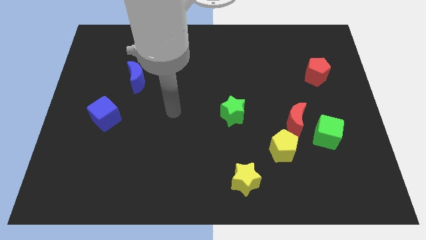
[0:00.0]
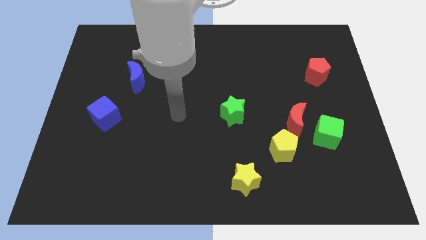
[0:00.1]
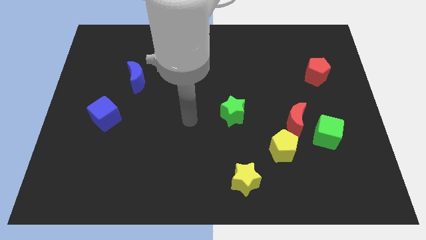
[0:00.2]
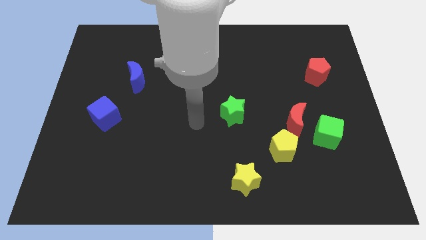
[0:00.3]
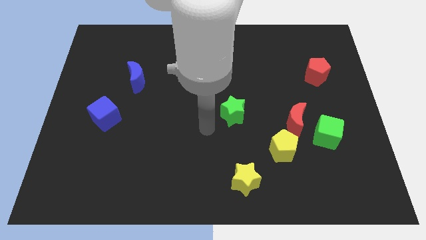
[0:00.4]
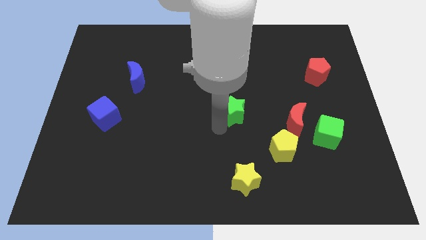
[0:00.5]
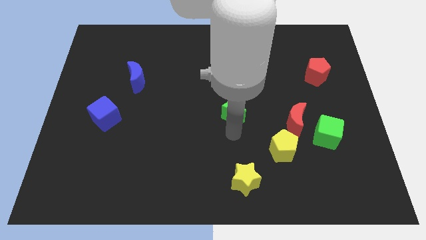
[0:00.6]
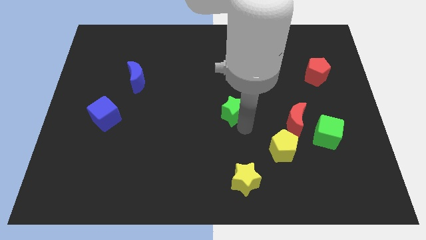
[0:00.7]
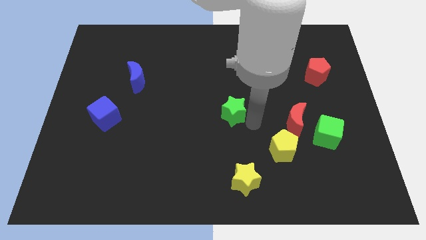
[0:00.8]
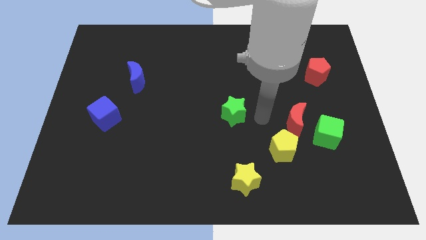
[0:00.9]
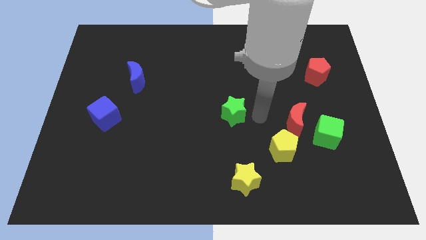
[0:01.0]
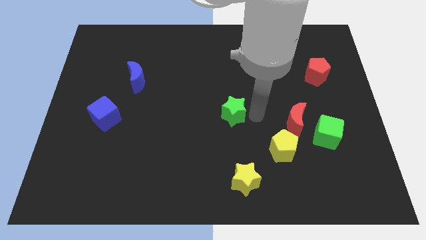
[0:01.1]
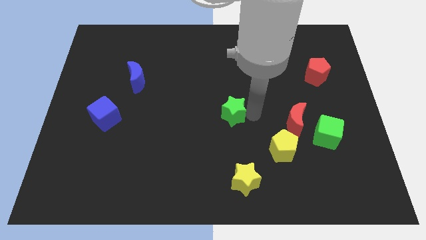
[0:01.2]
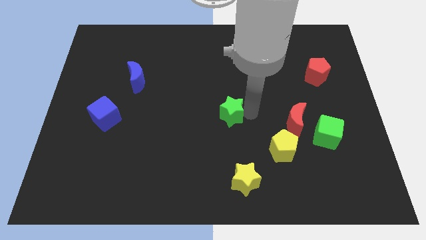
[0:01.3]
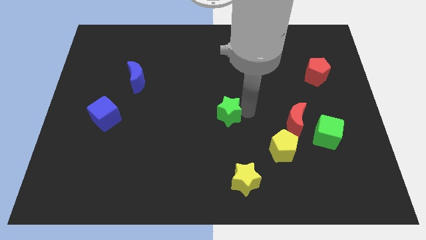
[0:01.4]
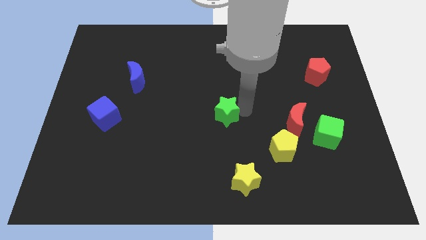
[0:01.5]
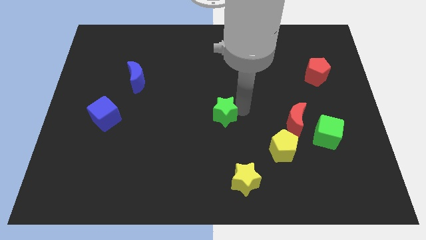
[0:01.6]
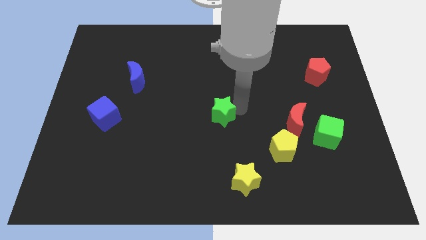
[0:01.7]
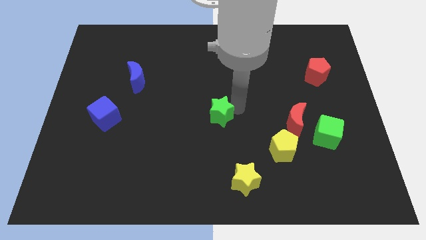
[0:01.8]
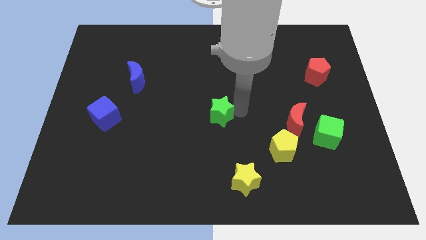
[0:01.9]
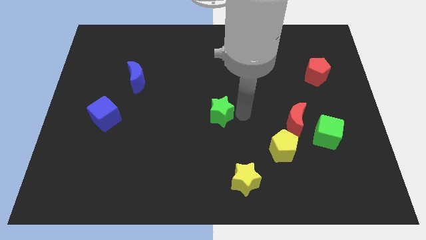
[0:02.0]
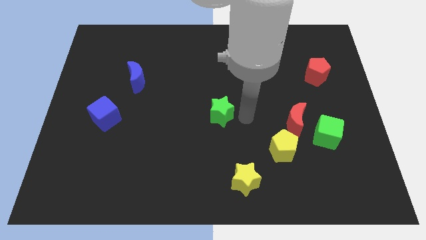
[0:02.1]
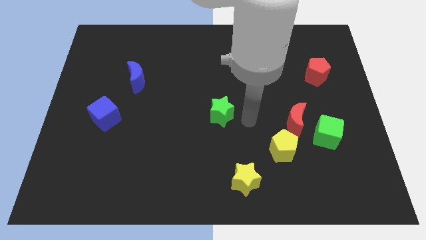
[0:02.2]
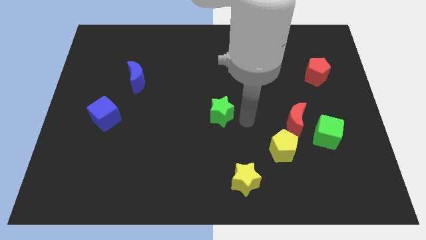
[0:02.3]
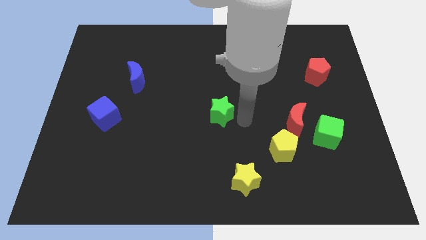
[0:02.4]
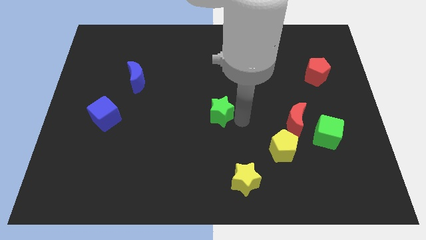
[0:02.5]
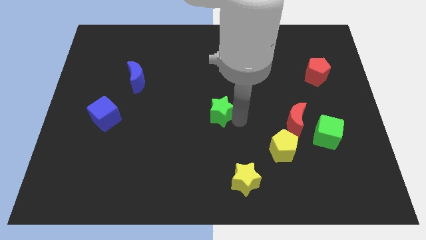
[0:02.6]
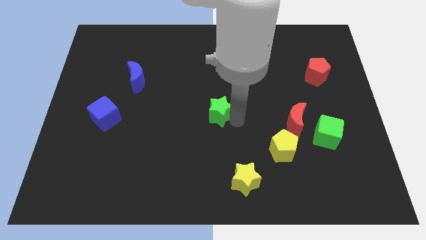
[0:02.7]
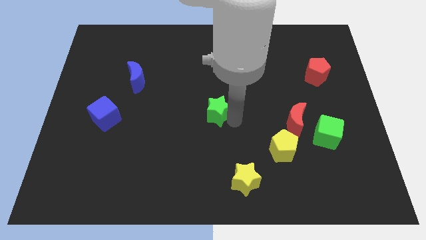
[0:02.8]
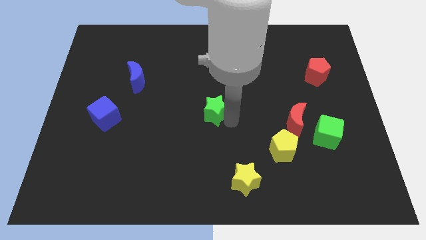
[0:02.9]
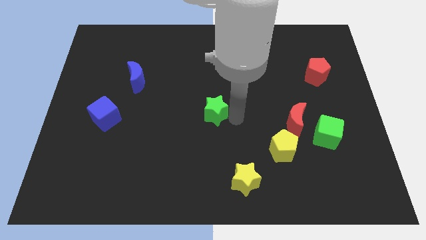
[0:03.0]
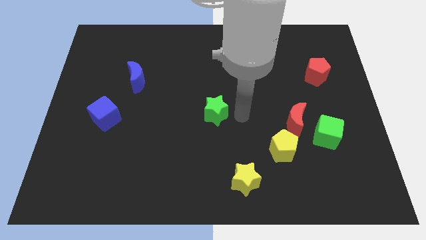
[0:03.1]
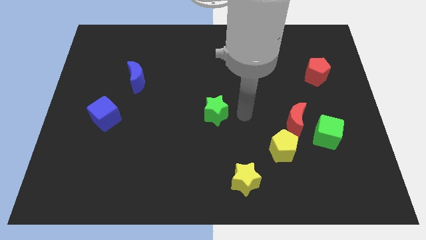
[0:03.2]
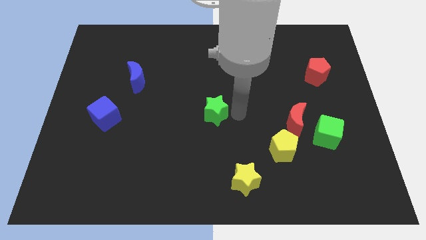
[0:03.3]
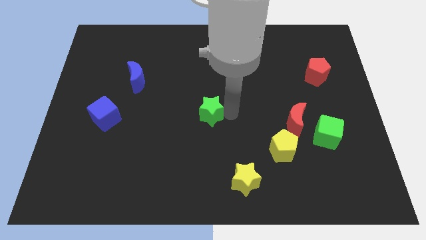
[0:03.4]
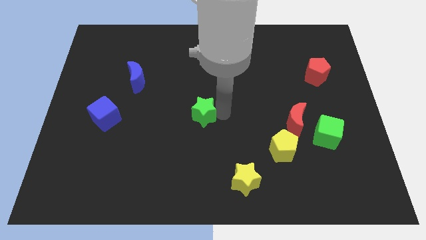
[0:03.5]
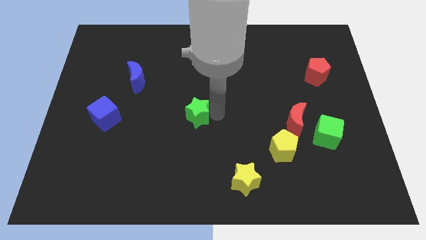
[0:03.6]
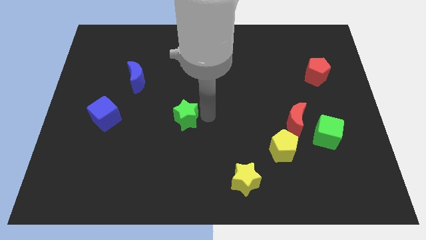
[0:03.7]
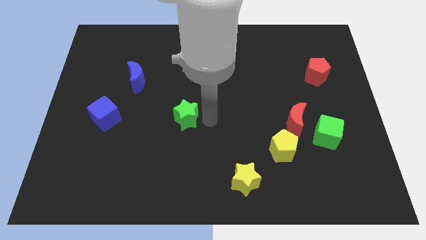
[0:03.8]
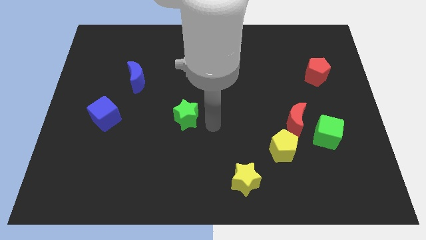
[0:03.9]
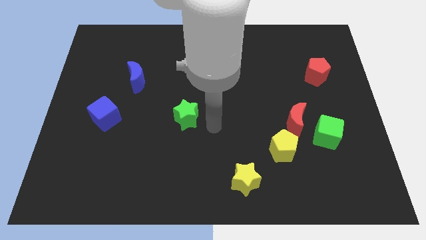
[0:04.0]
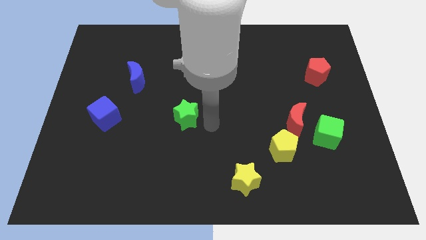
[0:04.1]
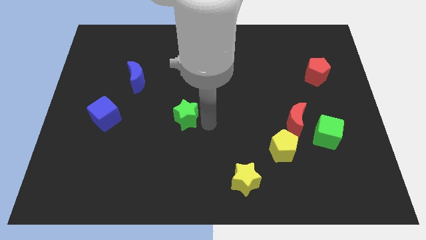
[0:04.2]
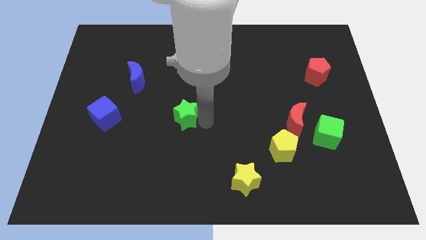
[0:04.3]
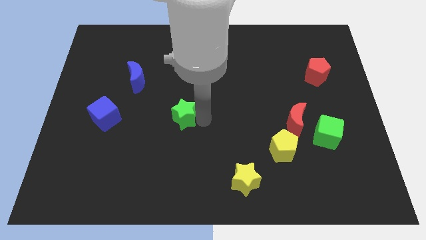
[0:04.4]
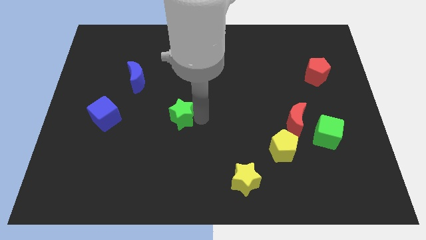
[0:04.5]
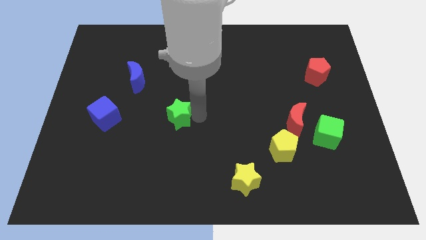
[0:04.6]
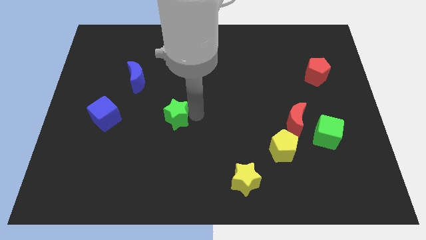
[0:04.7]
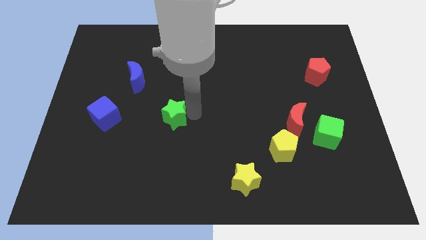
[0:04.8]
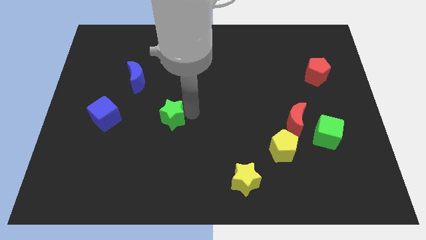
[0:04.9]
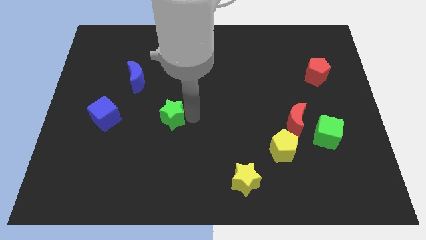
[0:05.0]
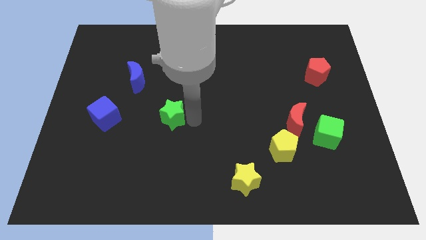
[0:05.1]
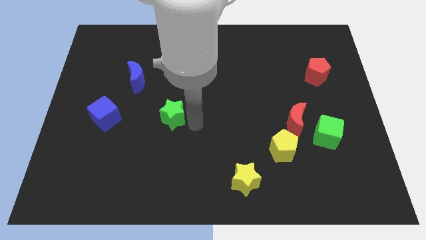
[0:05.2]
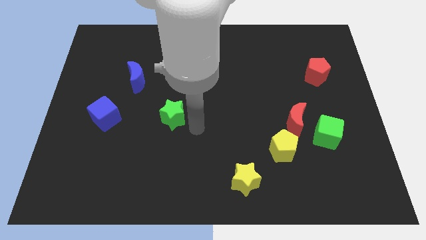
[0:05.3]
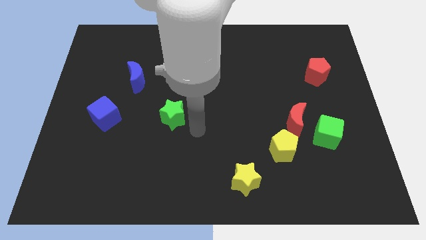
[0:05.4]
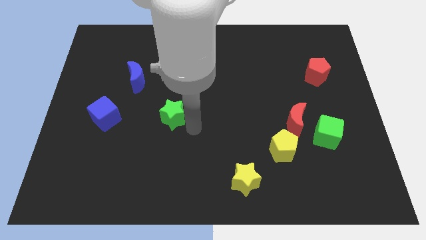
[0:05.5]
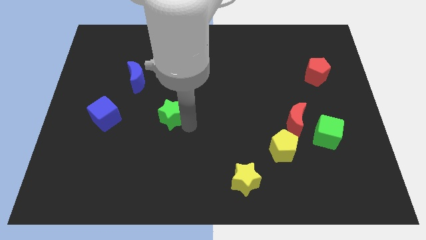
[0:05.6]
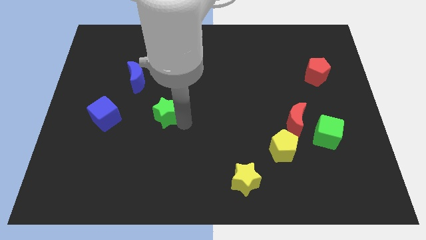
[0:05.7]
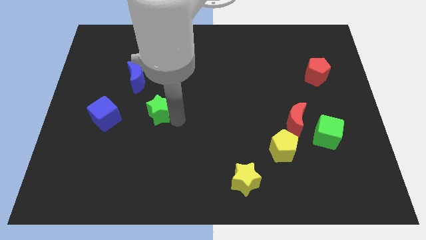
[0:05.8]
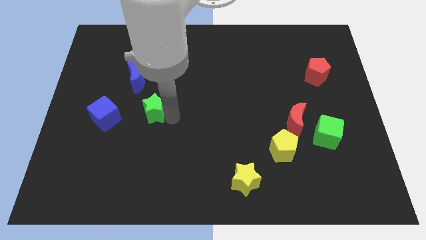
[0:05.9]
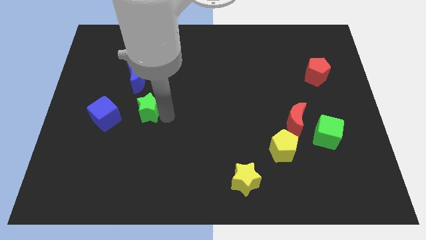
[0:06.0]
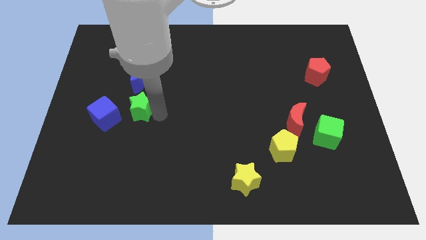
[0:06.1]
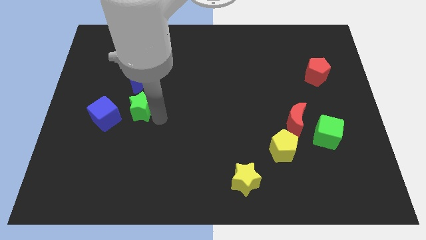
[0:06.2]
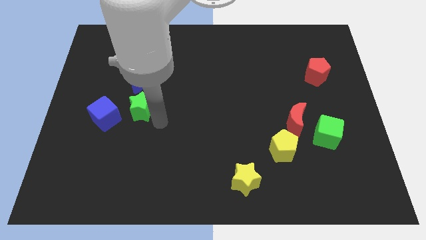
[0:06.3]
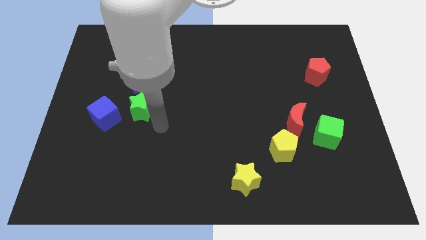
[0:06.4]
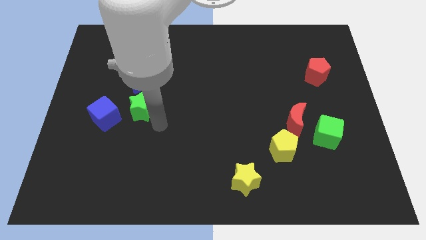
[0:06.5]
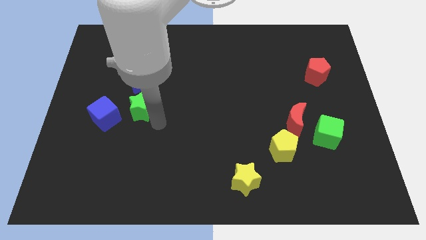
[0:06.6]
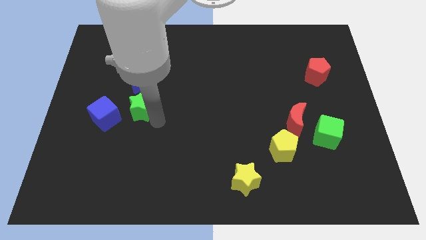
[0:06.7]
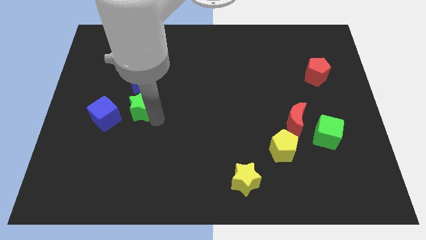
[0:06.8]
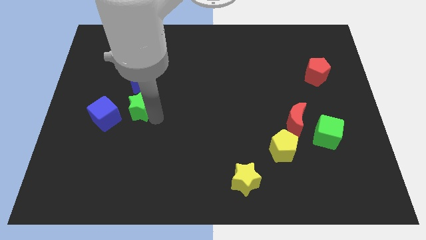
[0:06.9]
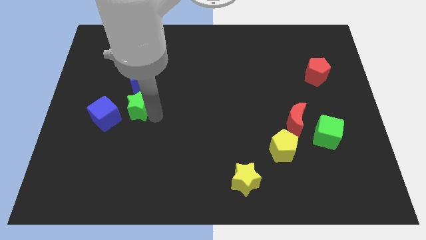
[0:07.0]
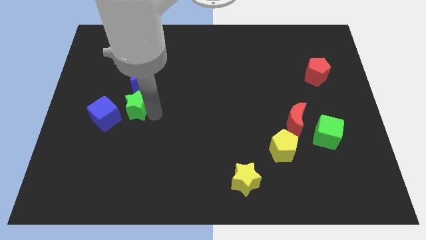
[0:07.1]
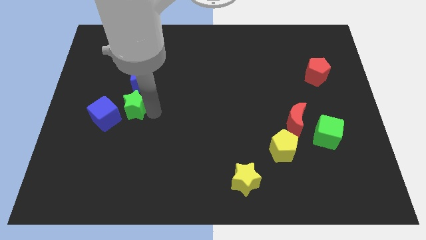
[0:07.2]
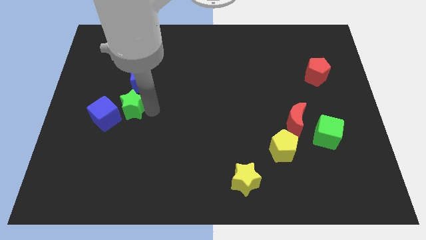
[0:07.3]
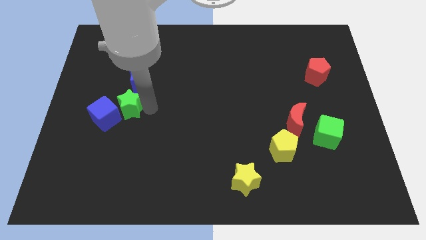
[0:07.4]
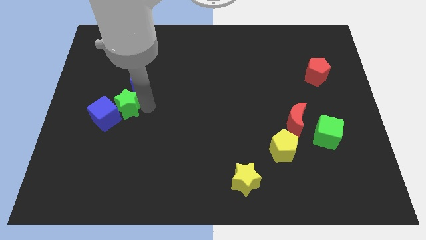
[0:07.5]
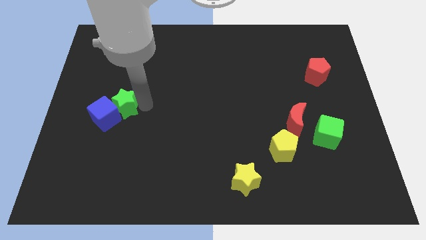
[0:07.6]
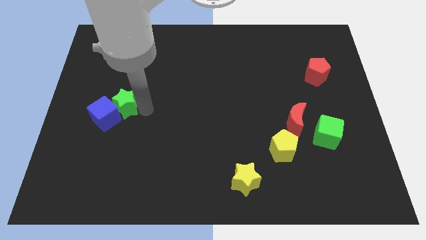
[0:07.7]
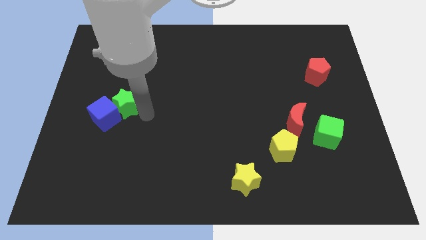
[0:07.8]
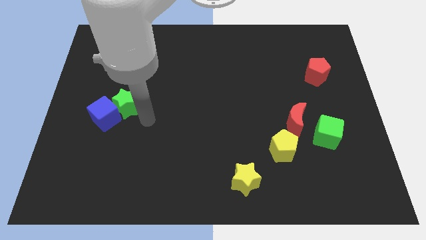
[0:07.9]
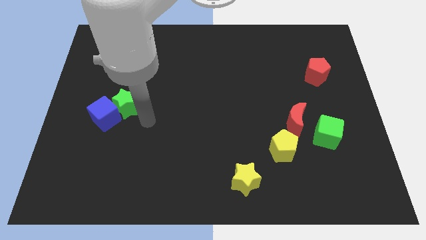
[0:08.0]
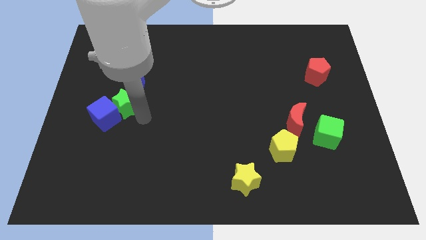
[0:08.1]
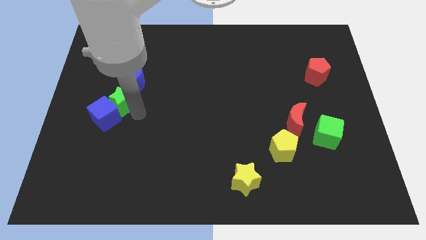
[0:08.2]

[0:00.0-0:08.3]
move the green star diagonally down and to the left of the blue moon

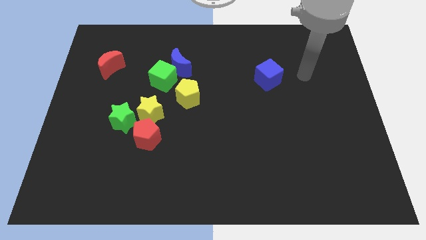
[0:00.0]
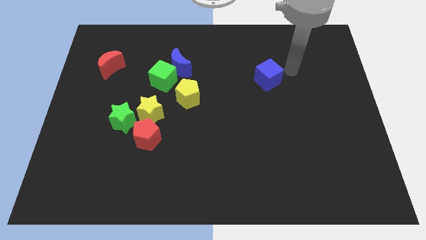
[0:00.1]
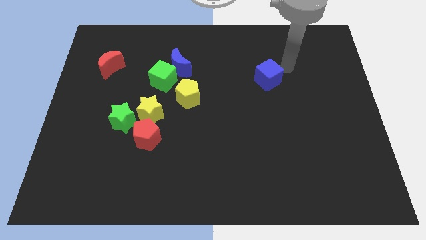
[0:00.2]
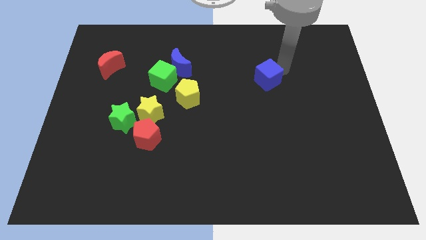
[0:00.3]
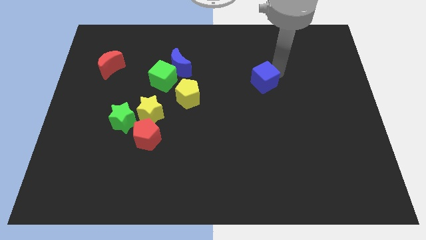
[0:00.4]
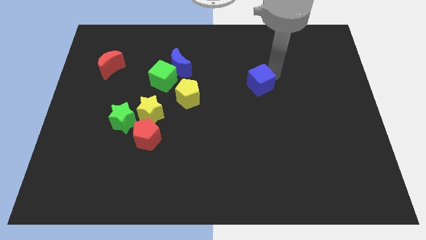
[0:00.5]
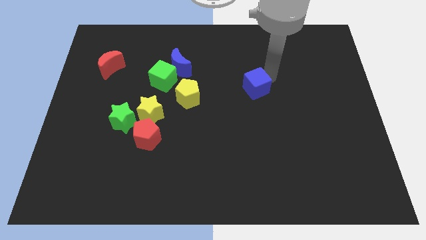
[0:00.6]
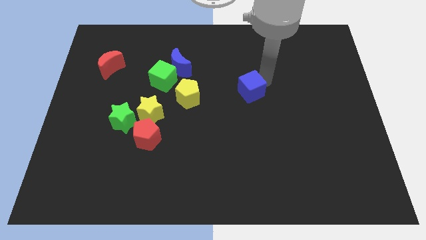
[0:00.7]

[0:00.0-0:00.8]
push the blue cube just right of the yellow pentagon
